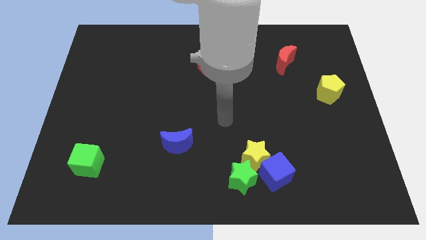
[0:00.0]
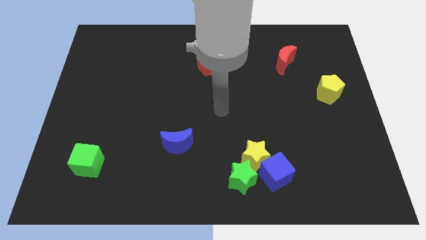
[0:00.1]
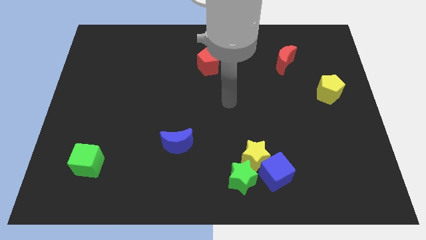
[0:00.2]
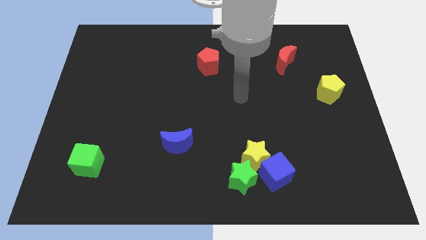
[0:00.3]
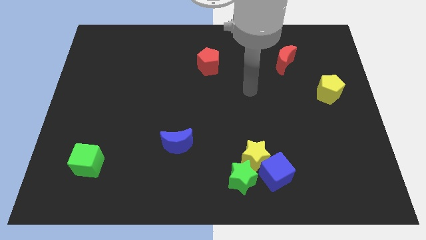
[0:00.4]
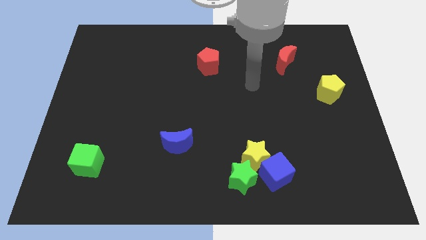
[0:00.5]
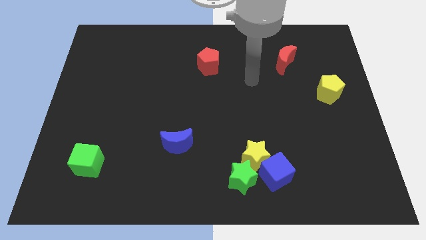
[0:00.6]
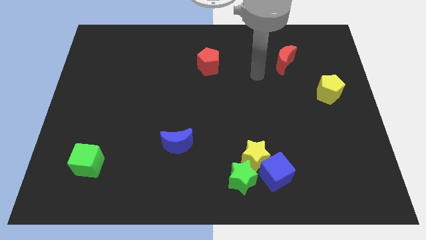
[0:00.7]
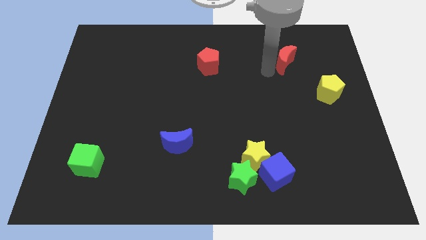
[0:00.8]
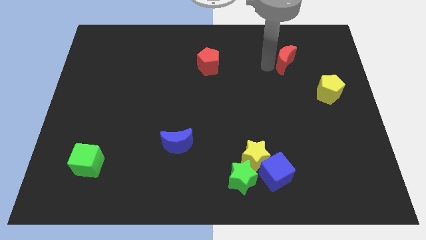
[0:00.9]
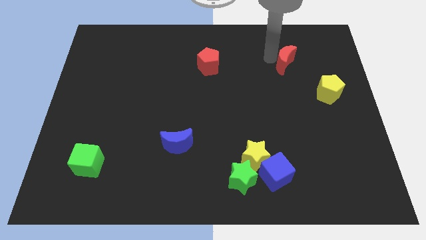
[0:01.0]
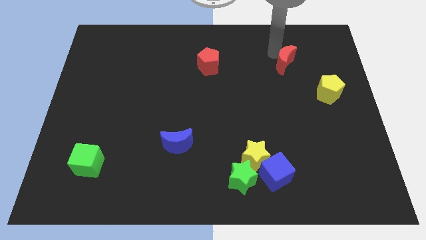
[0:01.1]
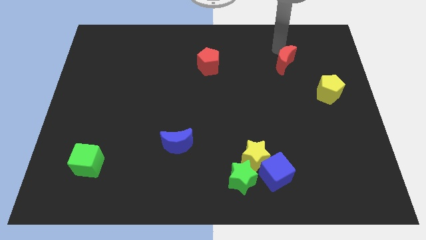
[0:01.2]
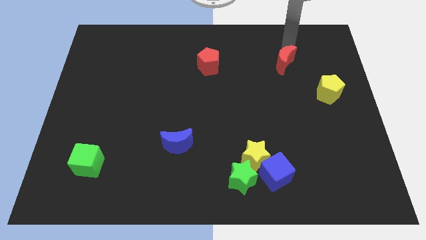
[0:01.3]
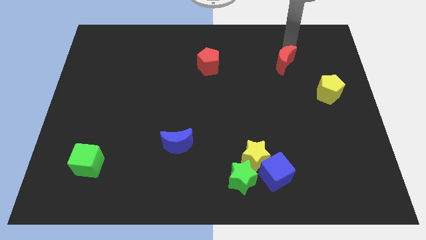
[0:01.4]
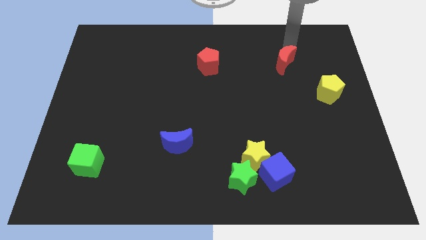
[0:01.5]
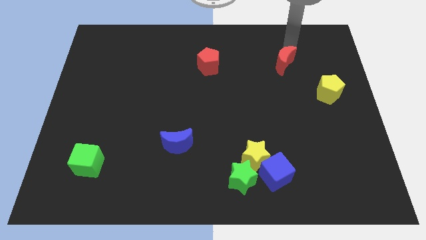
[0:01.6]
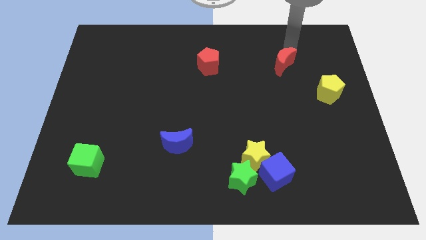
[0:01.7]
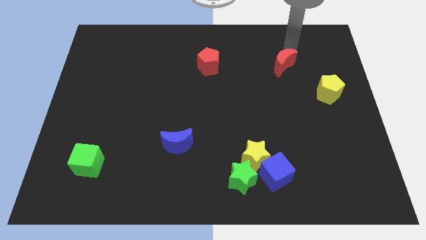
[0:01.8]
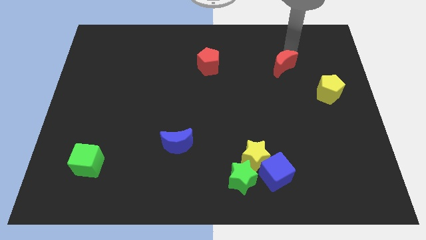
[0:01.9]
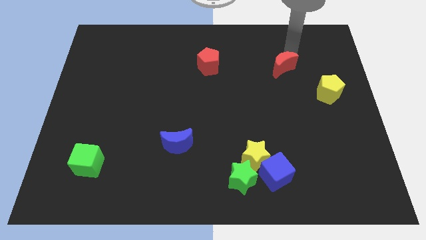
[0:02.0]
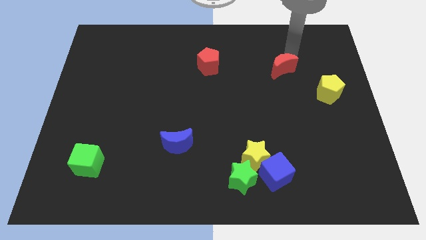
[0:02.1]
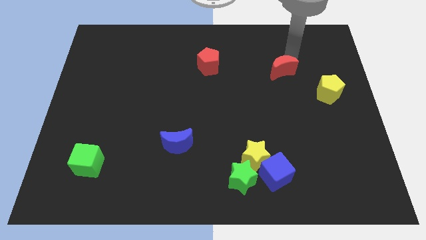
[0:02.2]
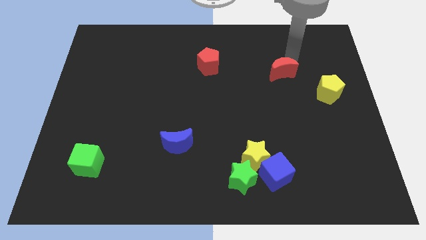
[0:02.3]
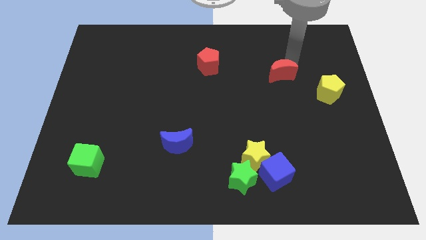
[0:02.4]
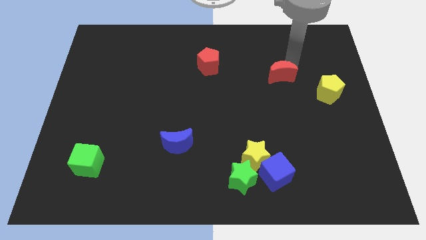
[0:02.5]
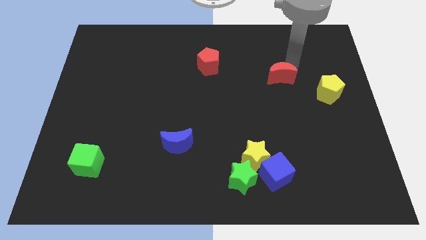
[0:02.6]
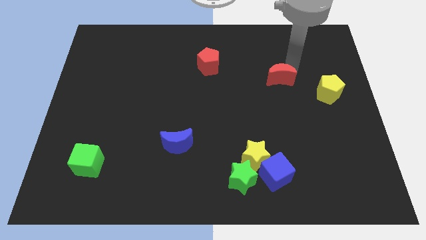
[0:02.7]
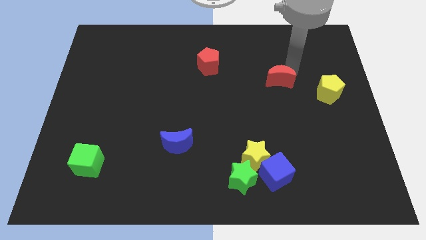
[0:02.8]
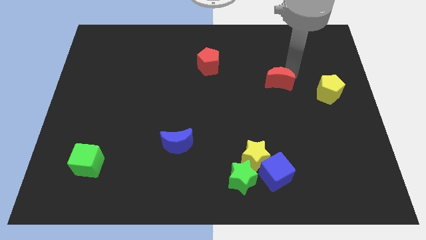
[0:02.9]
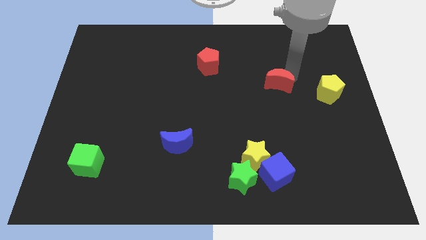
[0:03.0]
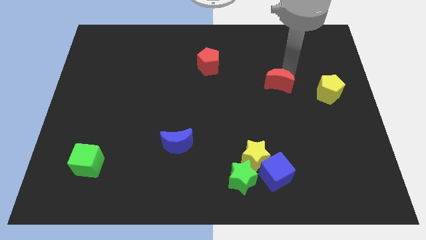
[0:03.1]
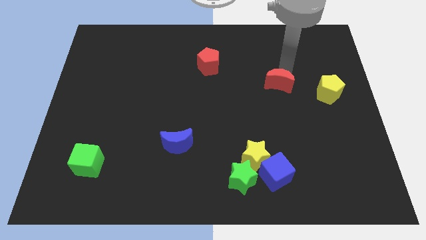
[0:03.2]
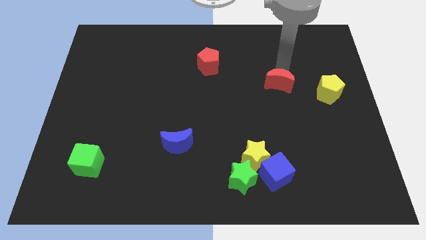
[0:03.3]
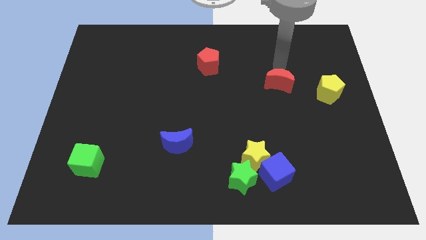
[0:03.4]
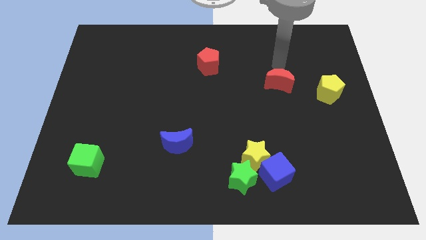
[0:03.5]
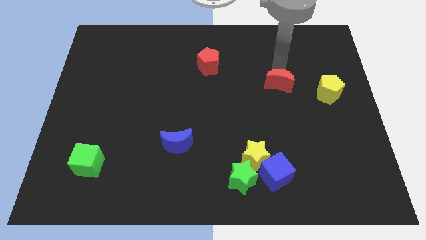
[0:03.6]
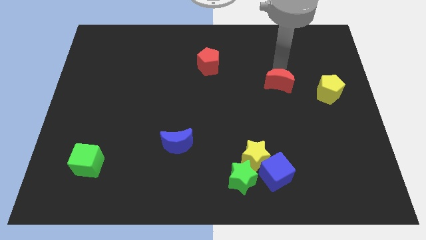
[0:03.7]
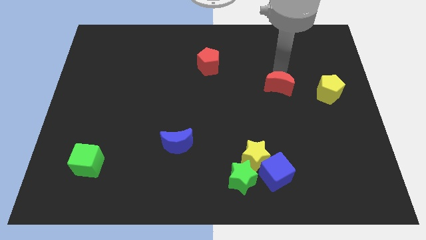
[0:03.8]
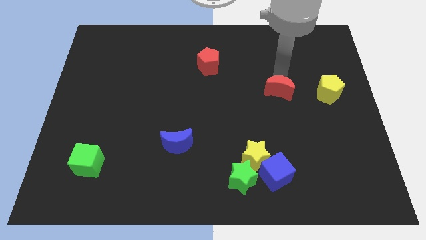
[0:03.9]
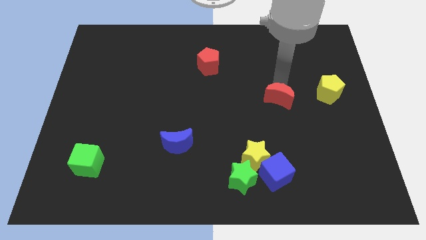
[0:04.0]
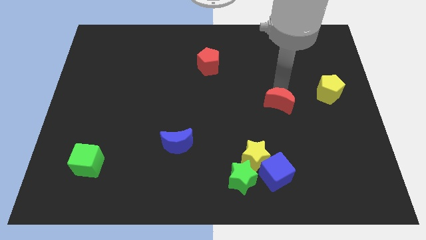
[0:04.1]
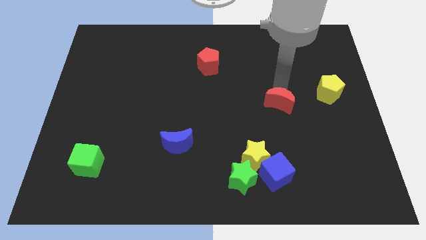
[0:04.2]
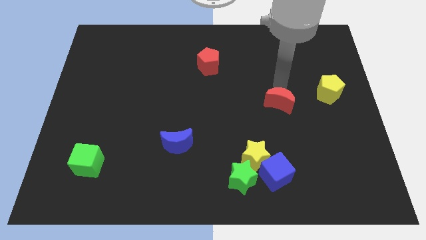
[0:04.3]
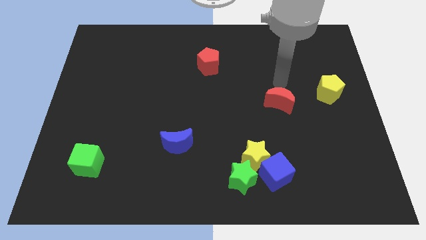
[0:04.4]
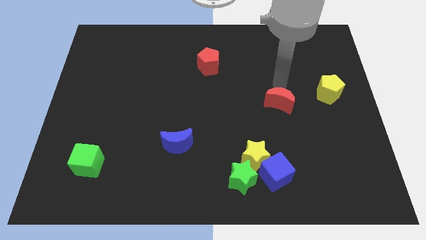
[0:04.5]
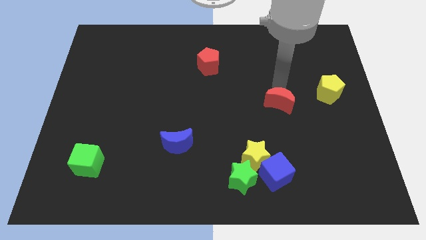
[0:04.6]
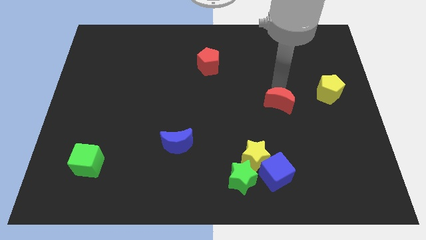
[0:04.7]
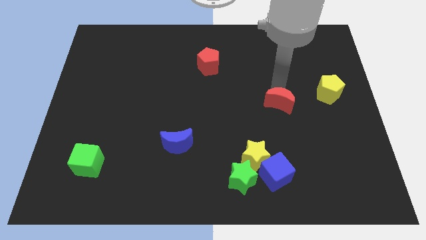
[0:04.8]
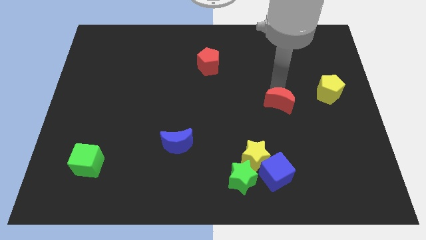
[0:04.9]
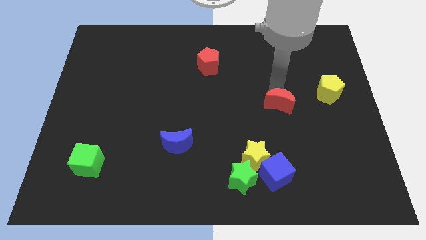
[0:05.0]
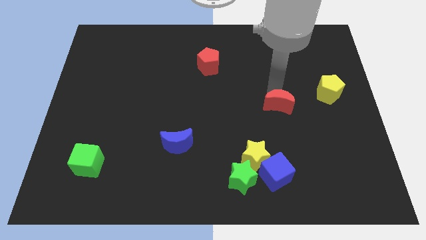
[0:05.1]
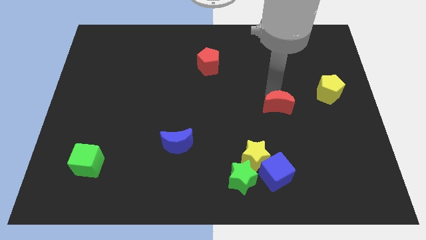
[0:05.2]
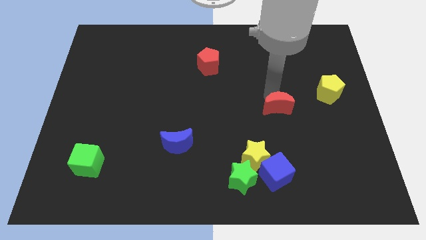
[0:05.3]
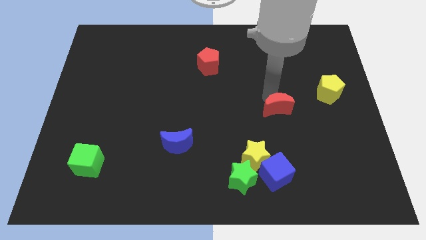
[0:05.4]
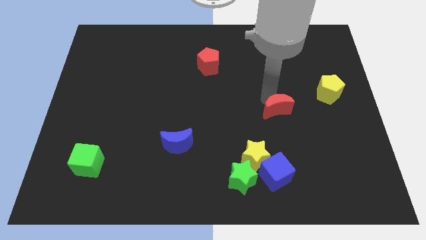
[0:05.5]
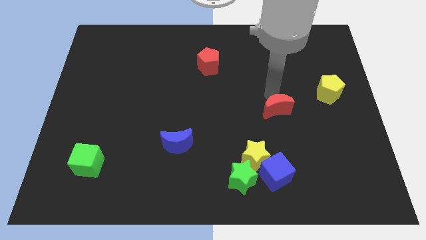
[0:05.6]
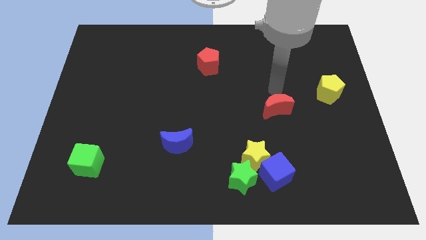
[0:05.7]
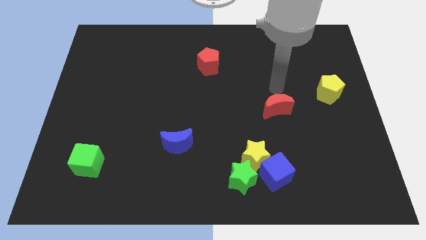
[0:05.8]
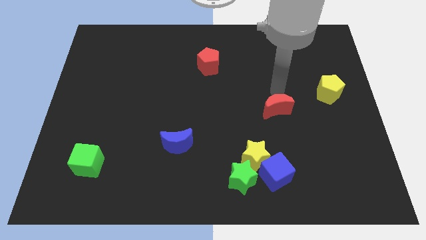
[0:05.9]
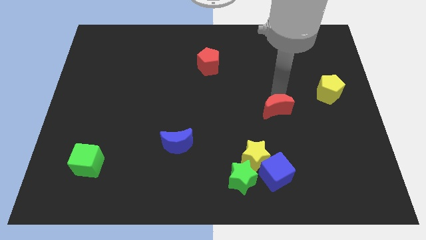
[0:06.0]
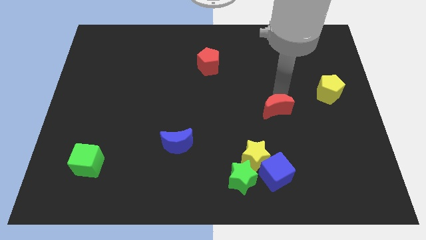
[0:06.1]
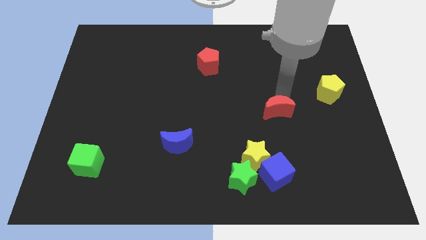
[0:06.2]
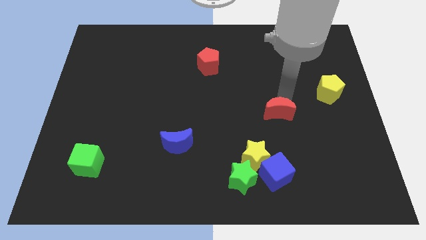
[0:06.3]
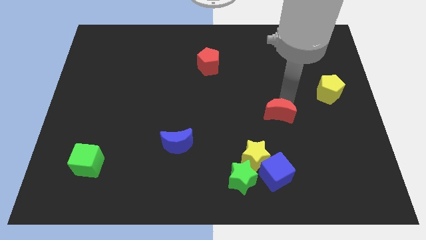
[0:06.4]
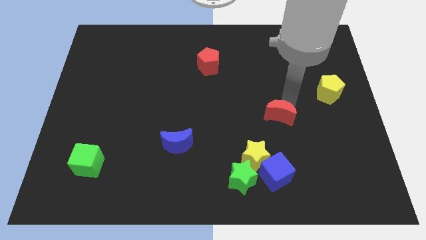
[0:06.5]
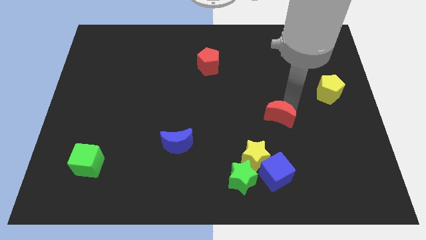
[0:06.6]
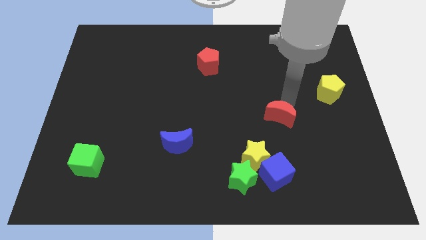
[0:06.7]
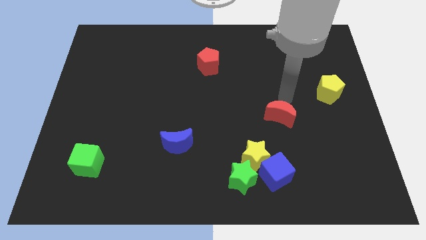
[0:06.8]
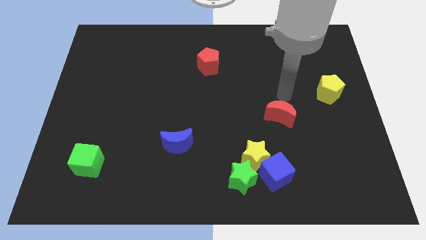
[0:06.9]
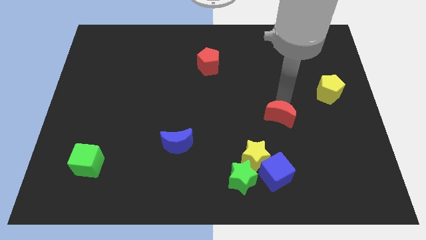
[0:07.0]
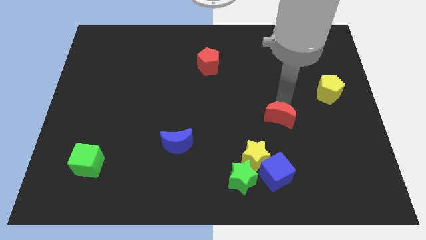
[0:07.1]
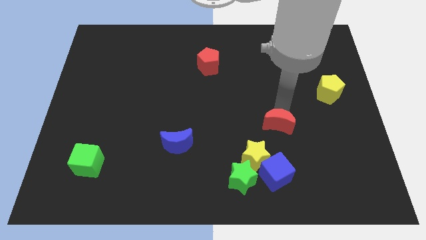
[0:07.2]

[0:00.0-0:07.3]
slide the red moon to the top right of the yellow star
